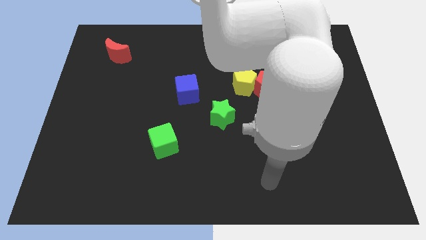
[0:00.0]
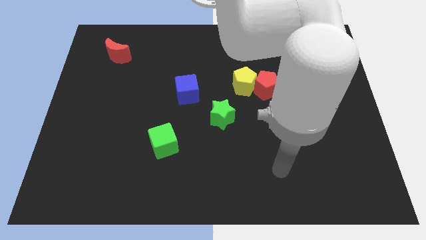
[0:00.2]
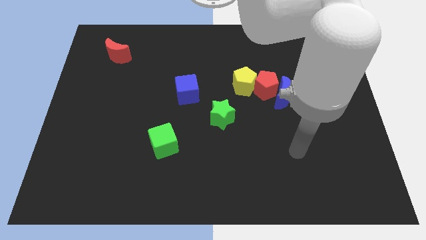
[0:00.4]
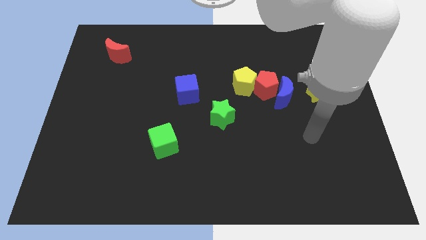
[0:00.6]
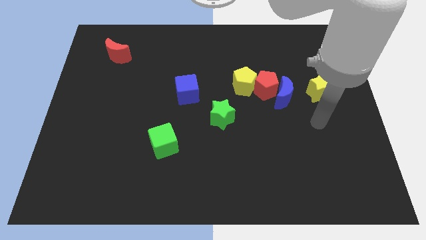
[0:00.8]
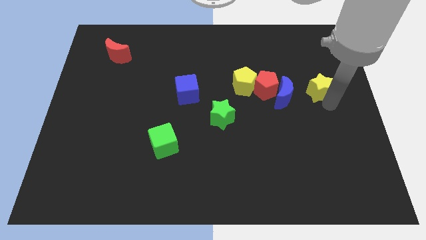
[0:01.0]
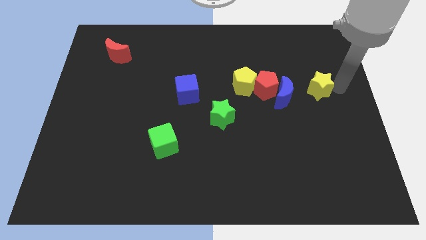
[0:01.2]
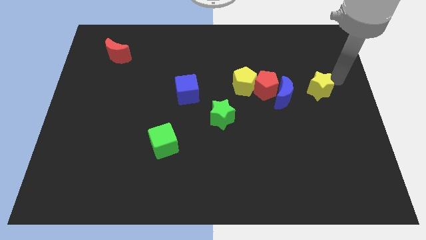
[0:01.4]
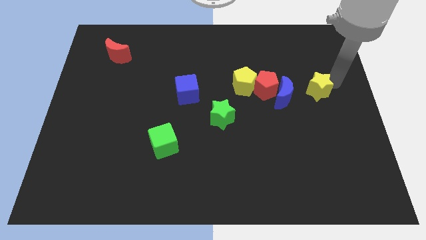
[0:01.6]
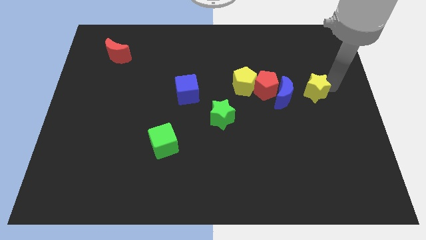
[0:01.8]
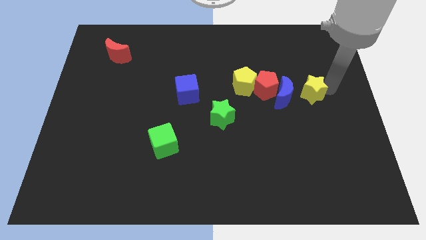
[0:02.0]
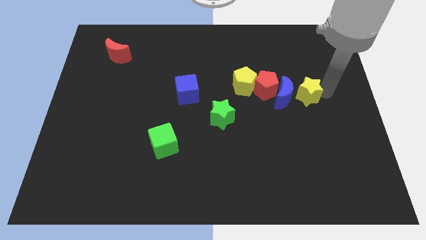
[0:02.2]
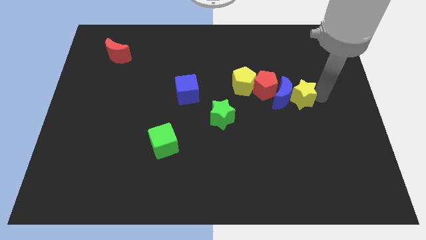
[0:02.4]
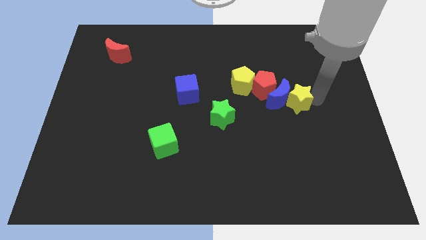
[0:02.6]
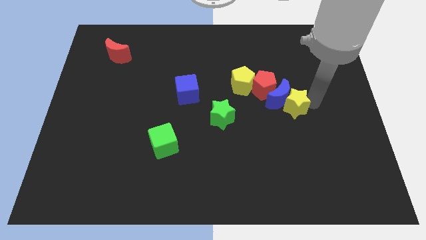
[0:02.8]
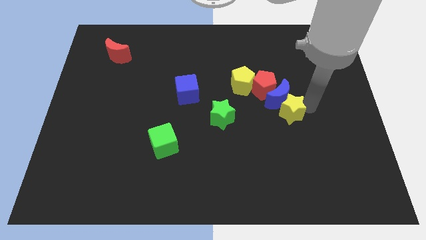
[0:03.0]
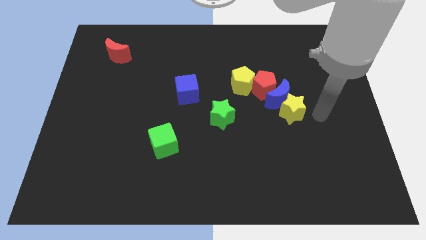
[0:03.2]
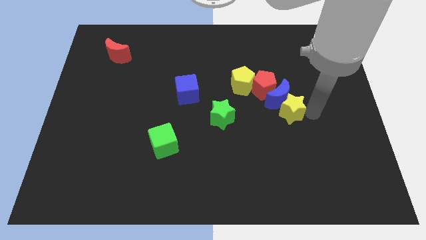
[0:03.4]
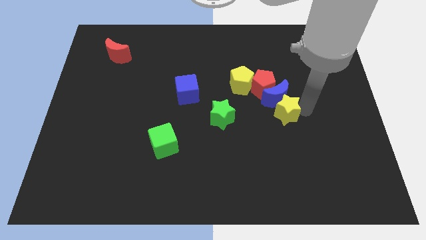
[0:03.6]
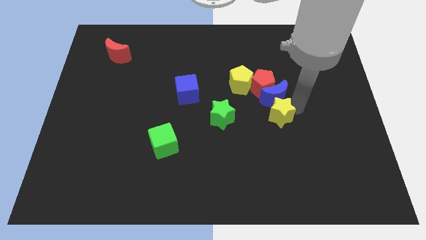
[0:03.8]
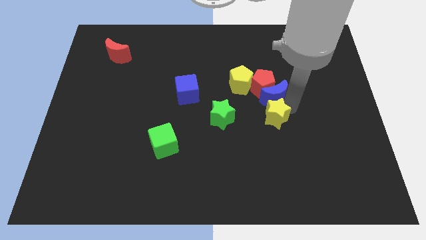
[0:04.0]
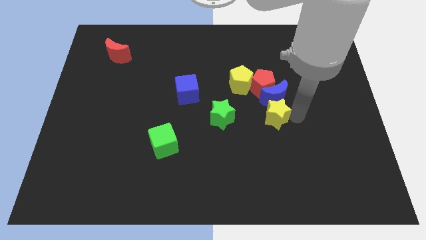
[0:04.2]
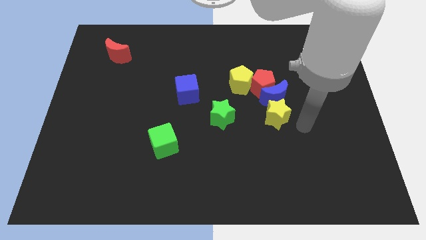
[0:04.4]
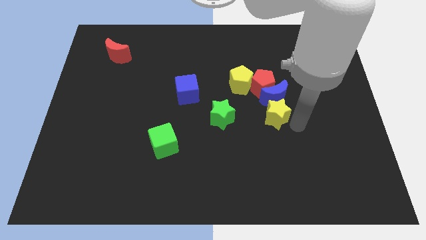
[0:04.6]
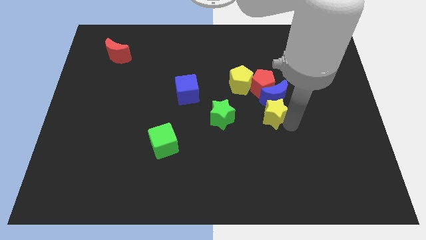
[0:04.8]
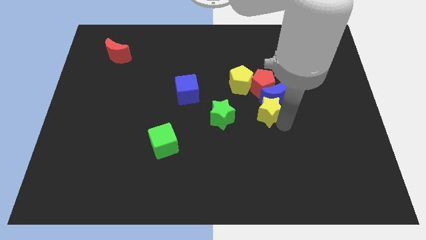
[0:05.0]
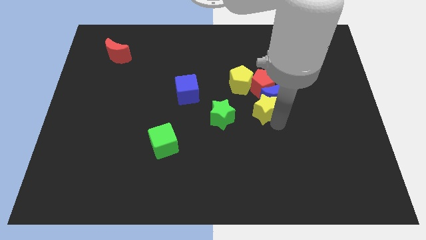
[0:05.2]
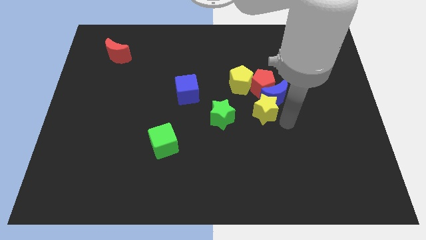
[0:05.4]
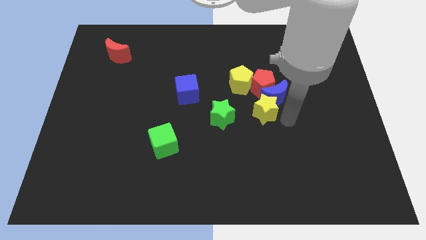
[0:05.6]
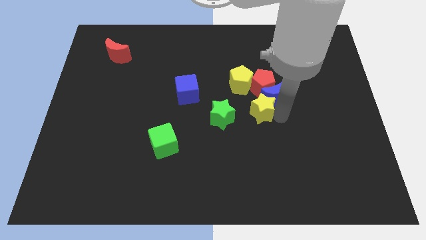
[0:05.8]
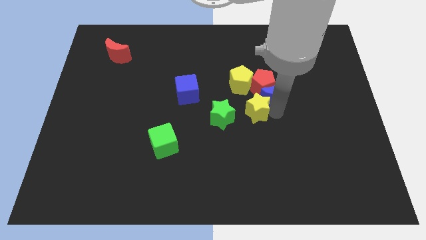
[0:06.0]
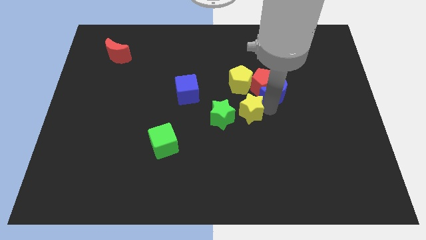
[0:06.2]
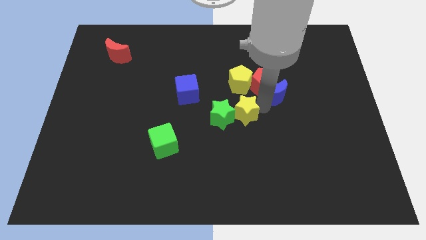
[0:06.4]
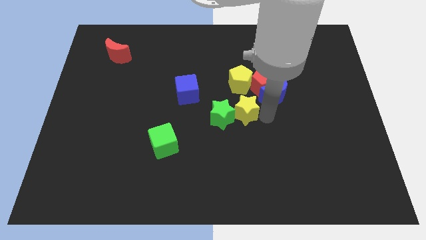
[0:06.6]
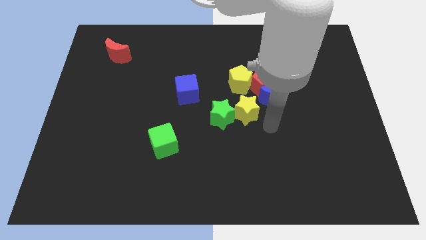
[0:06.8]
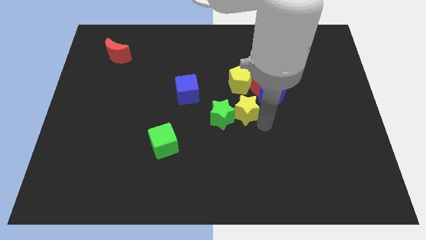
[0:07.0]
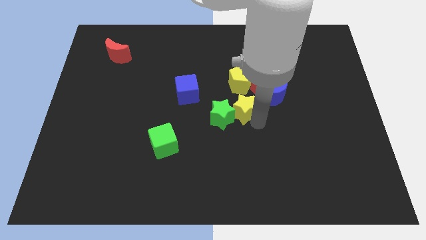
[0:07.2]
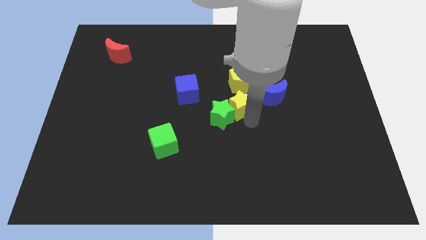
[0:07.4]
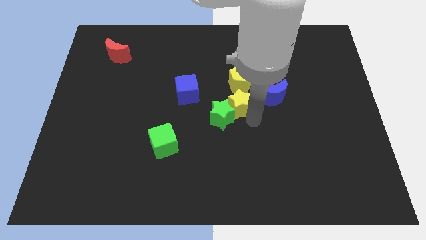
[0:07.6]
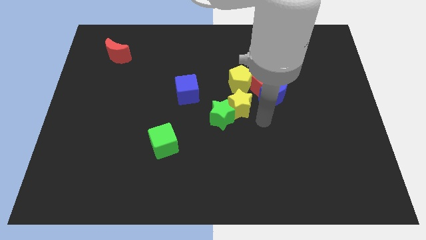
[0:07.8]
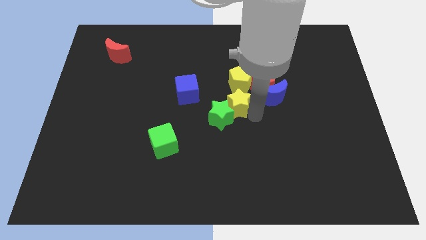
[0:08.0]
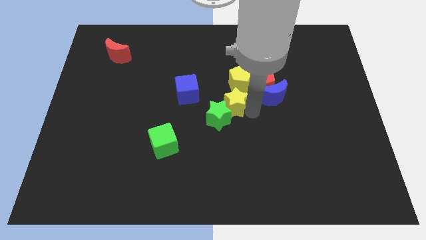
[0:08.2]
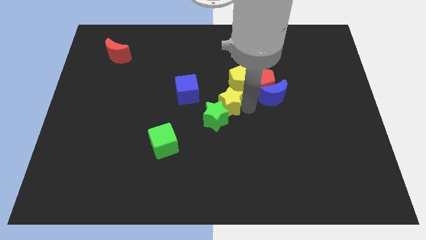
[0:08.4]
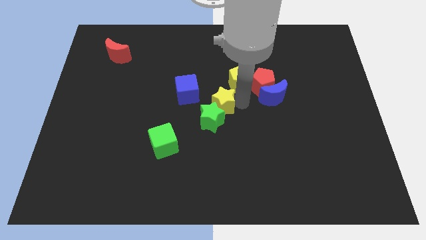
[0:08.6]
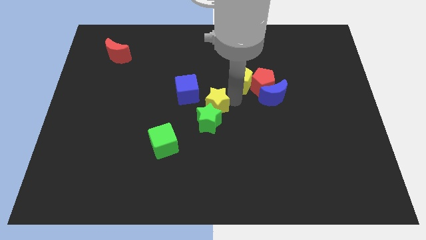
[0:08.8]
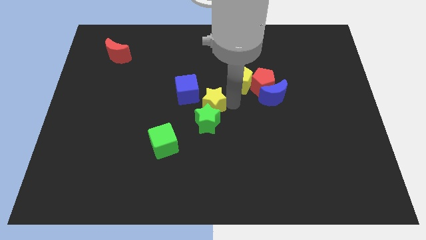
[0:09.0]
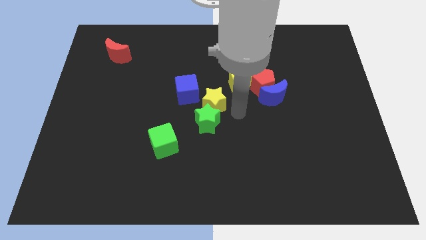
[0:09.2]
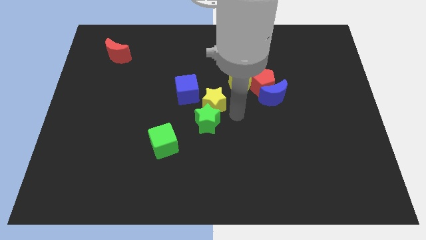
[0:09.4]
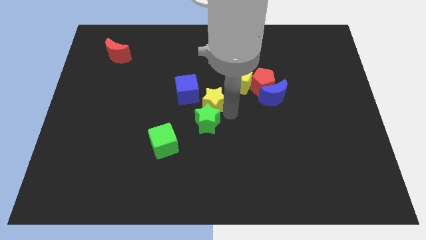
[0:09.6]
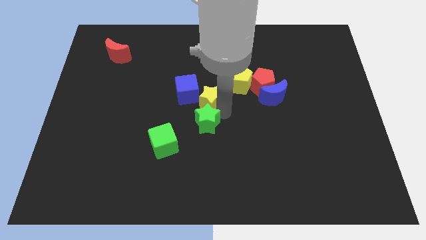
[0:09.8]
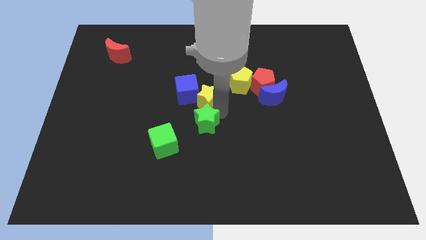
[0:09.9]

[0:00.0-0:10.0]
push the yellow star next to the blue cube

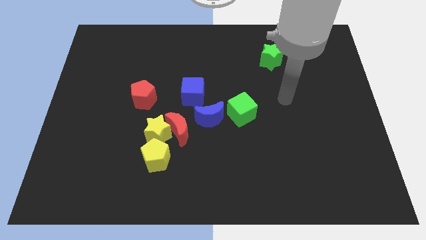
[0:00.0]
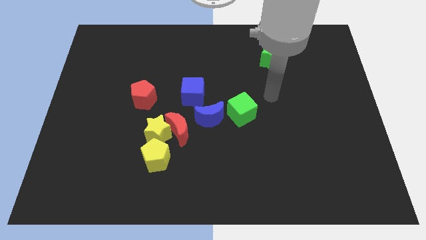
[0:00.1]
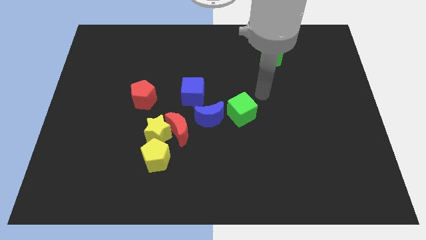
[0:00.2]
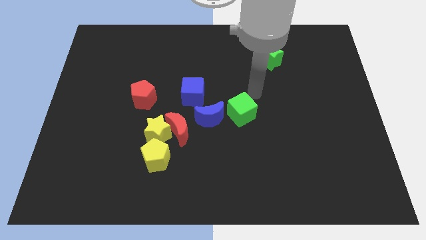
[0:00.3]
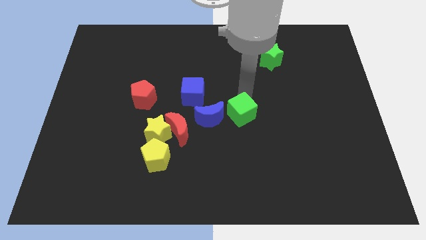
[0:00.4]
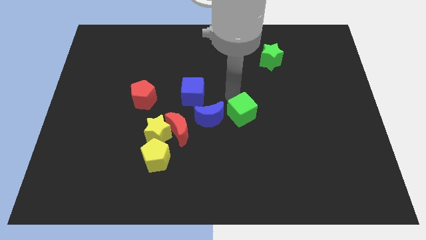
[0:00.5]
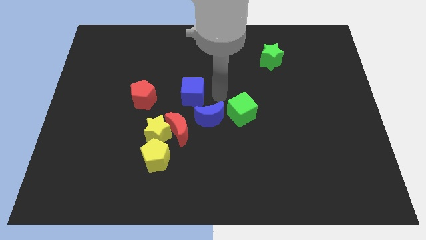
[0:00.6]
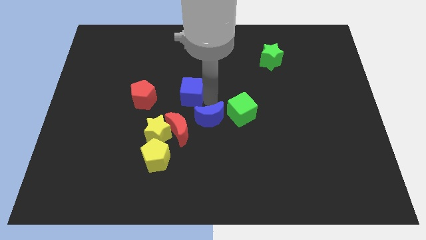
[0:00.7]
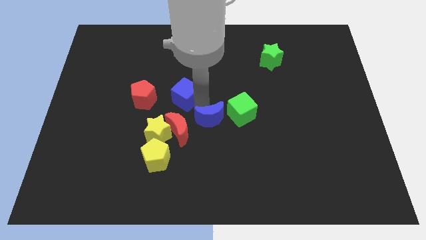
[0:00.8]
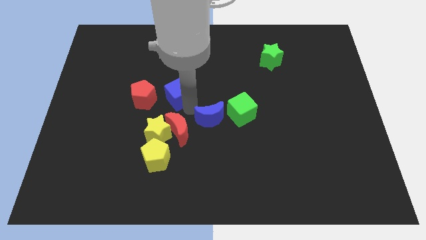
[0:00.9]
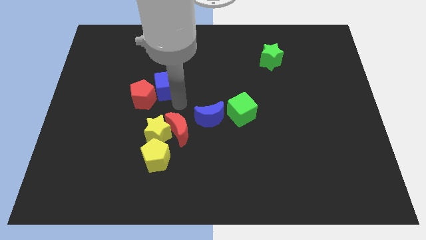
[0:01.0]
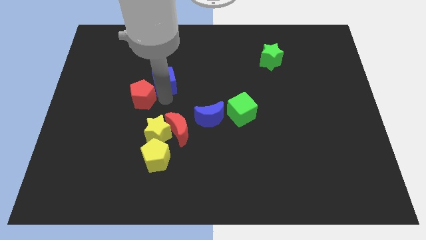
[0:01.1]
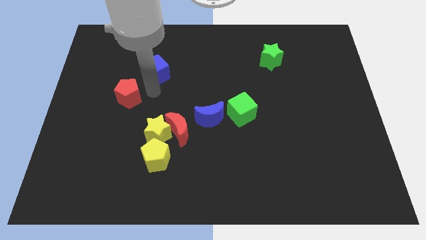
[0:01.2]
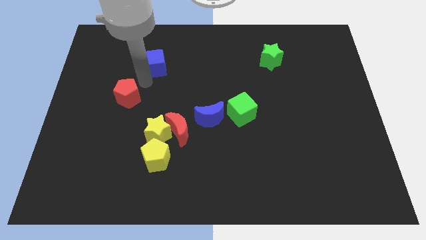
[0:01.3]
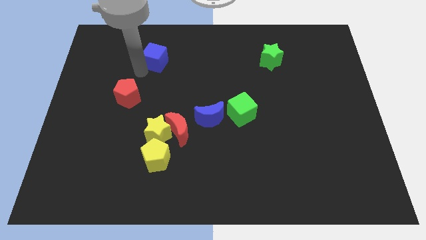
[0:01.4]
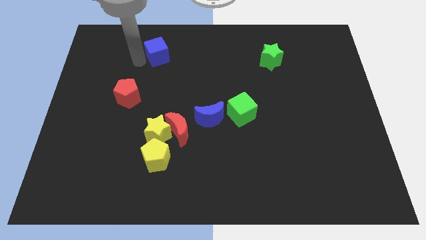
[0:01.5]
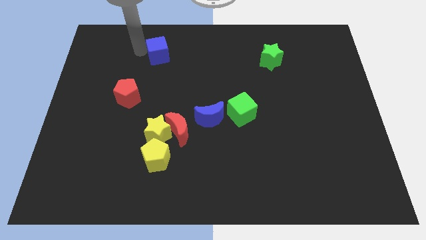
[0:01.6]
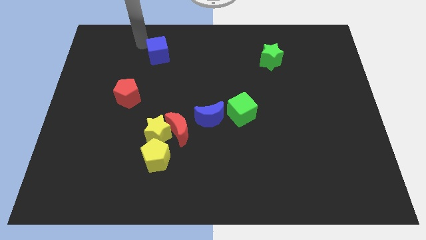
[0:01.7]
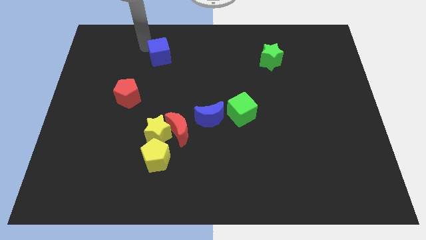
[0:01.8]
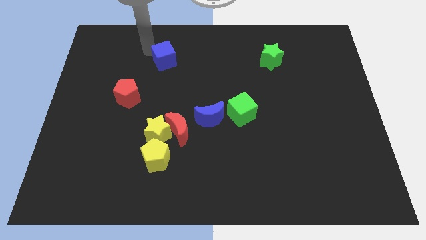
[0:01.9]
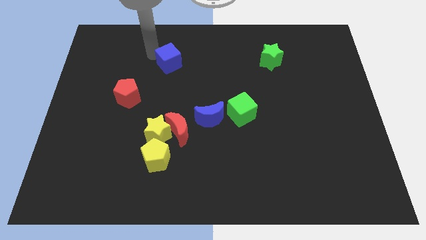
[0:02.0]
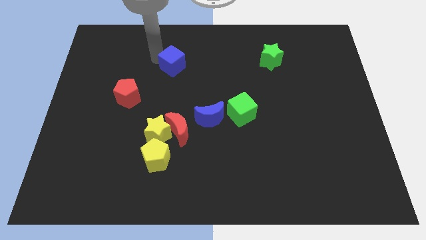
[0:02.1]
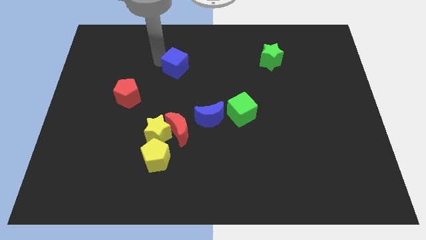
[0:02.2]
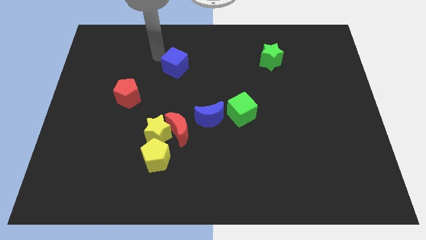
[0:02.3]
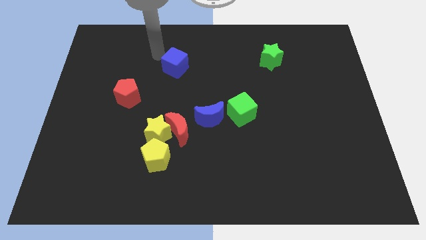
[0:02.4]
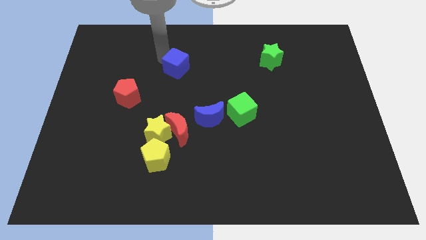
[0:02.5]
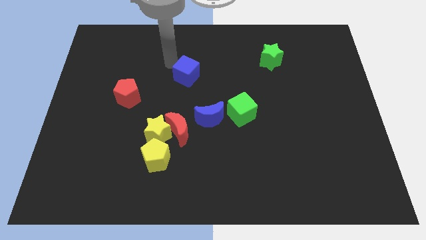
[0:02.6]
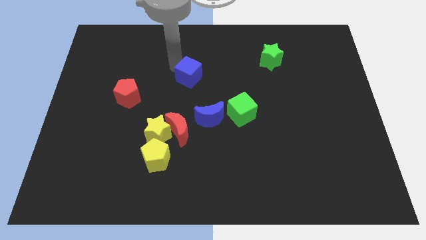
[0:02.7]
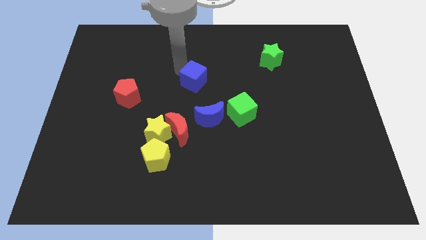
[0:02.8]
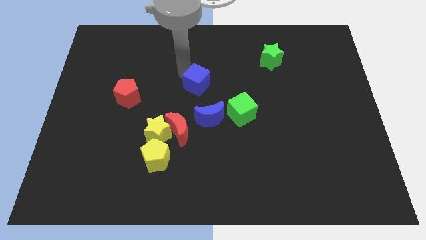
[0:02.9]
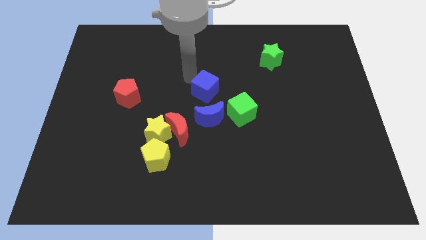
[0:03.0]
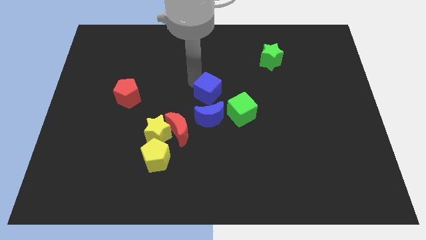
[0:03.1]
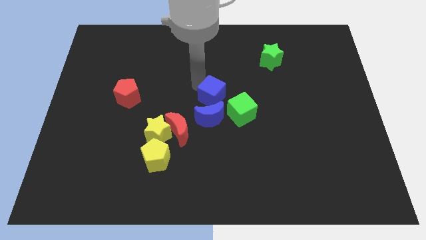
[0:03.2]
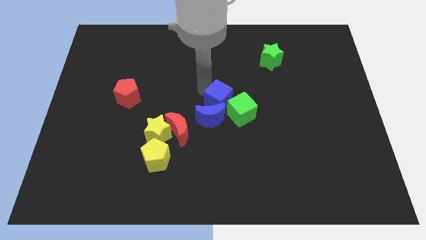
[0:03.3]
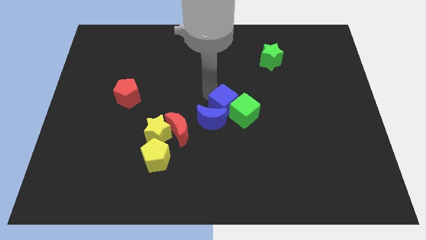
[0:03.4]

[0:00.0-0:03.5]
move the blue cube to the green cube
